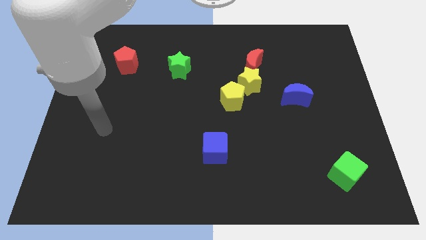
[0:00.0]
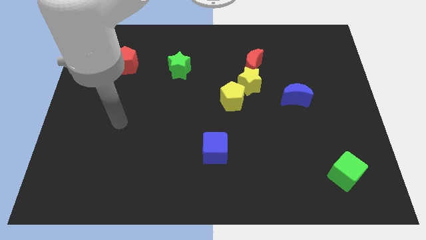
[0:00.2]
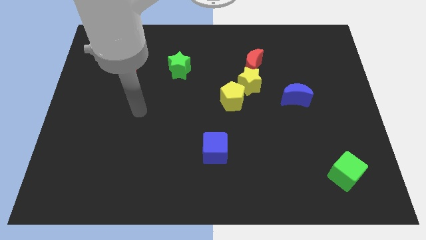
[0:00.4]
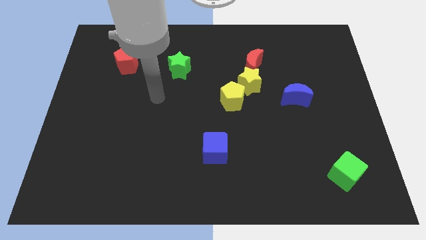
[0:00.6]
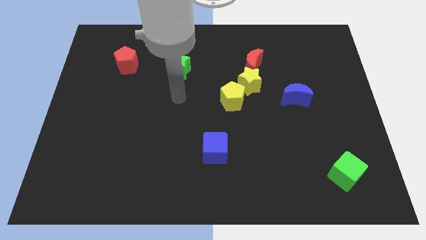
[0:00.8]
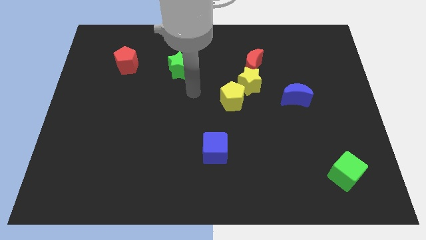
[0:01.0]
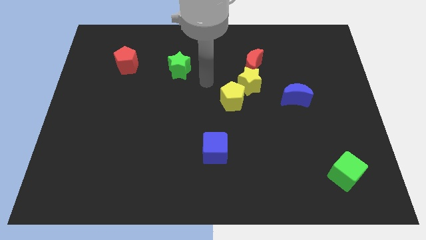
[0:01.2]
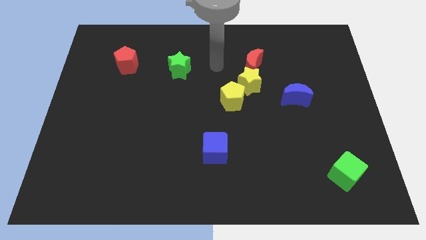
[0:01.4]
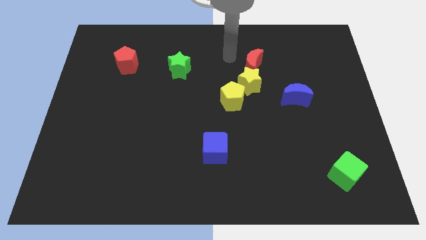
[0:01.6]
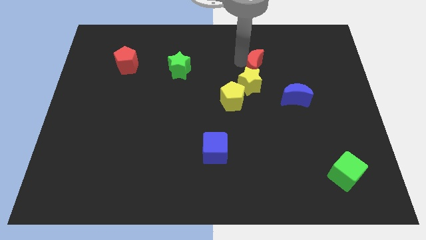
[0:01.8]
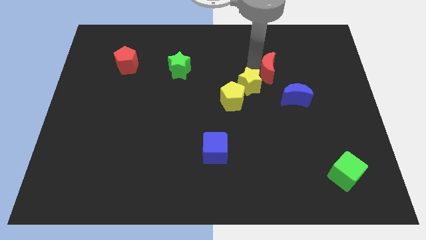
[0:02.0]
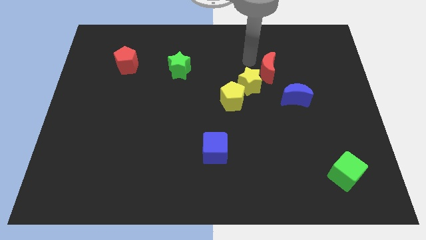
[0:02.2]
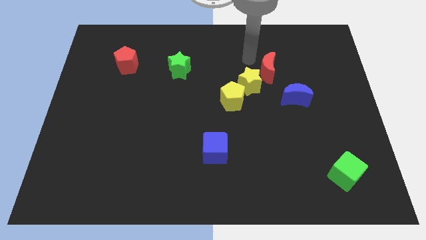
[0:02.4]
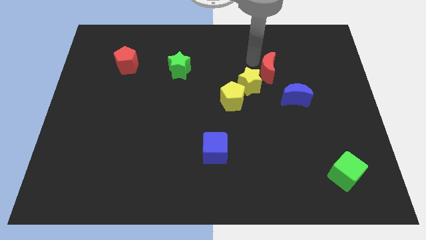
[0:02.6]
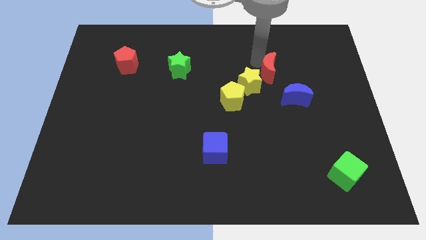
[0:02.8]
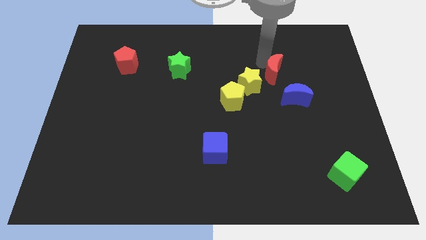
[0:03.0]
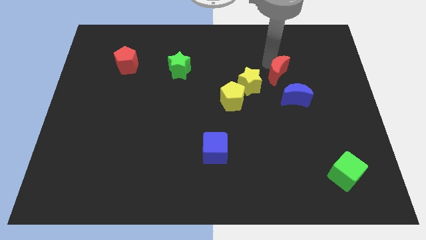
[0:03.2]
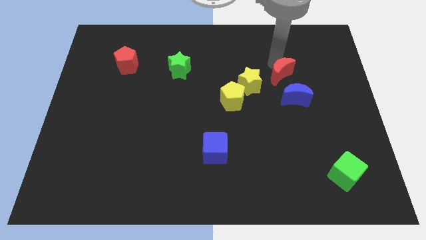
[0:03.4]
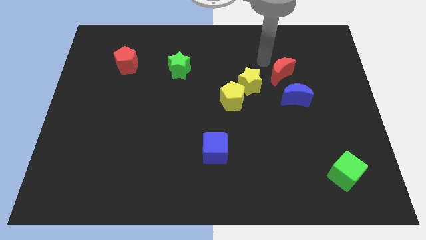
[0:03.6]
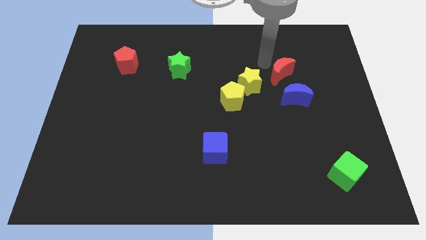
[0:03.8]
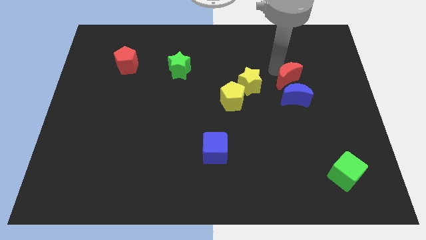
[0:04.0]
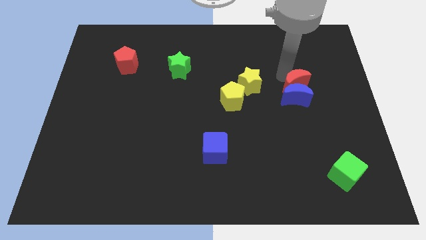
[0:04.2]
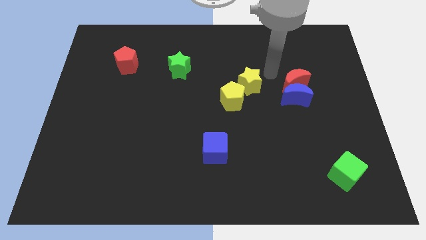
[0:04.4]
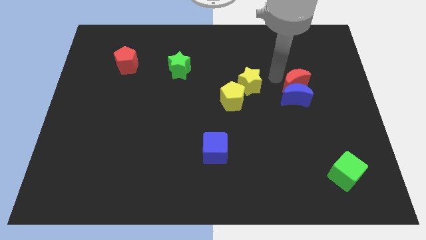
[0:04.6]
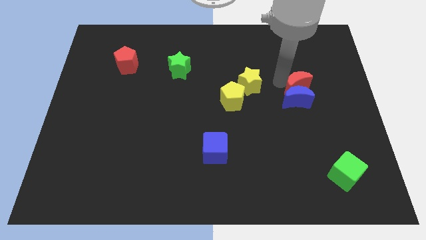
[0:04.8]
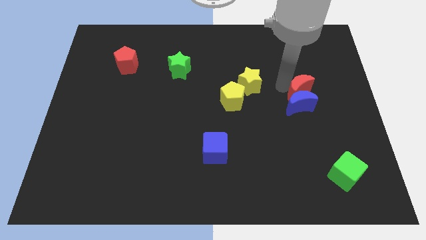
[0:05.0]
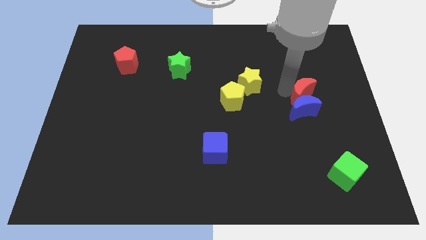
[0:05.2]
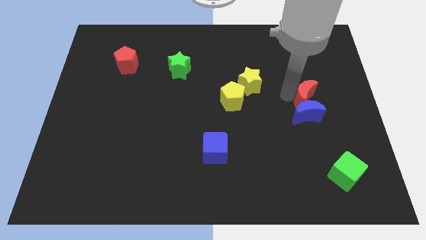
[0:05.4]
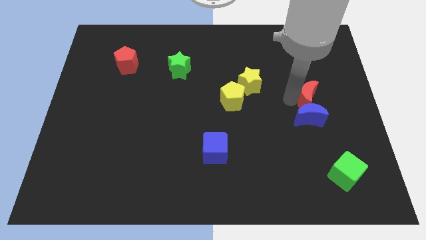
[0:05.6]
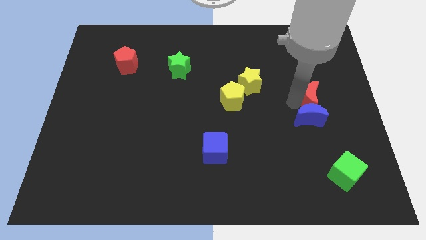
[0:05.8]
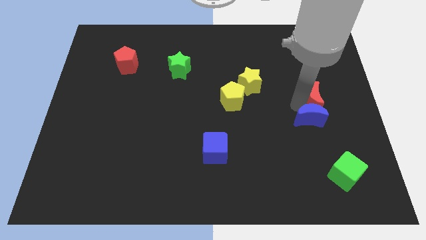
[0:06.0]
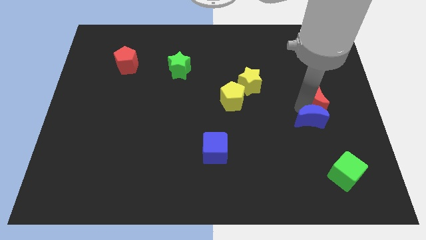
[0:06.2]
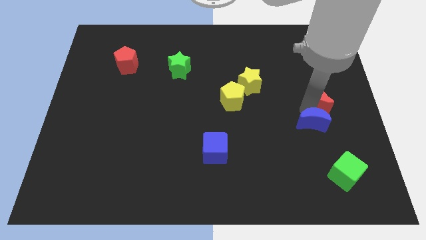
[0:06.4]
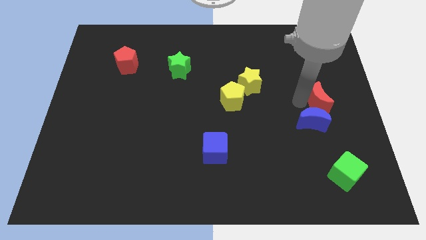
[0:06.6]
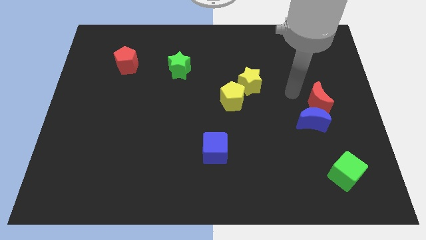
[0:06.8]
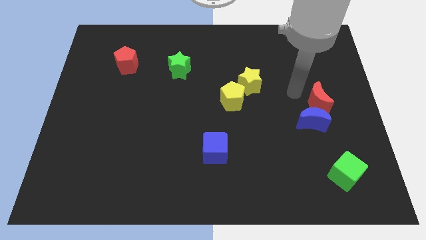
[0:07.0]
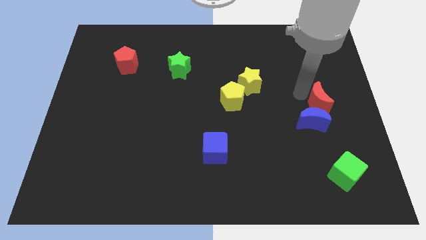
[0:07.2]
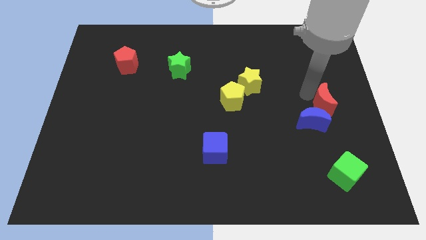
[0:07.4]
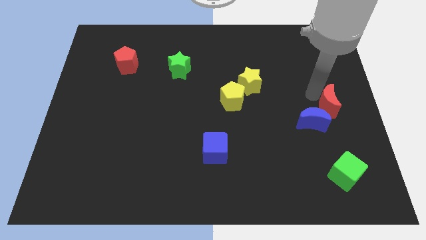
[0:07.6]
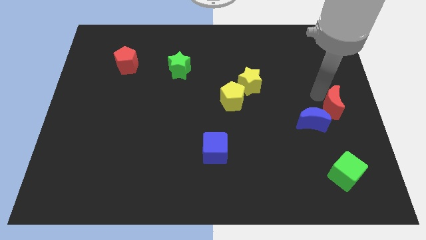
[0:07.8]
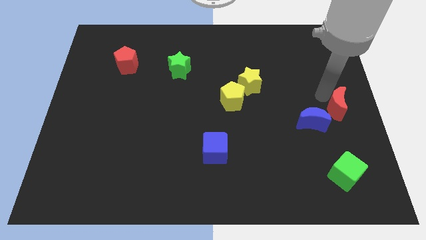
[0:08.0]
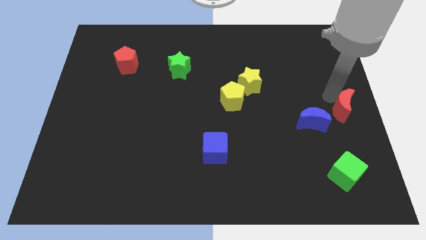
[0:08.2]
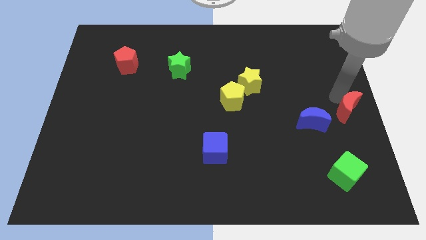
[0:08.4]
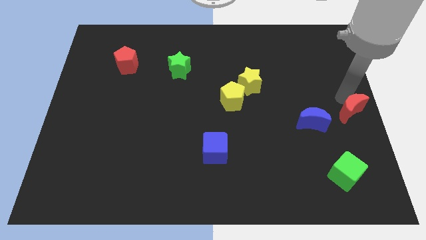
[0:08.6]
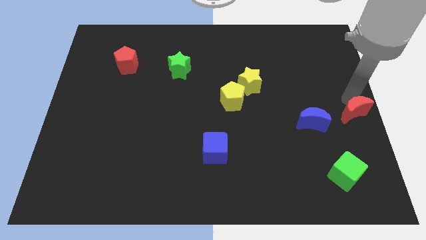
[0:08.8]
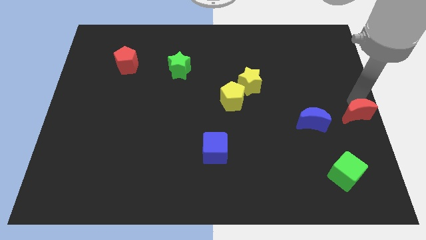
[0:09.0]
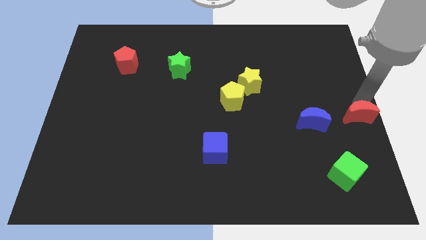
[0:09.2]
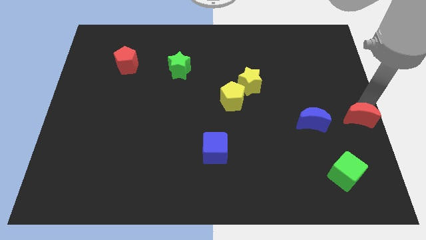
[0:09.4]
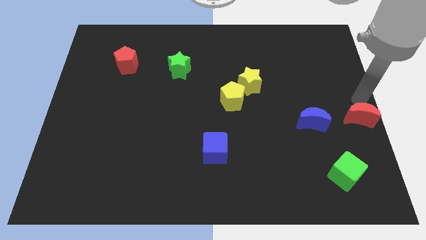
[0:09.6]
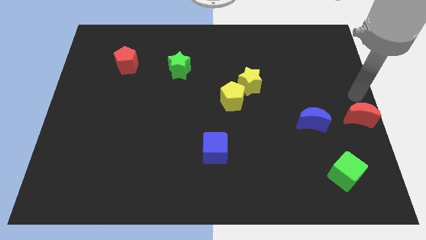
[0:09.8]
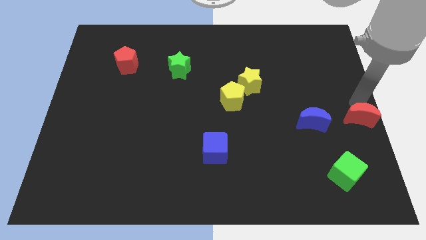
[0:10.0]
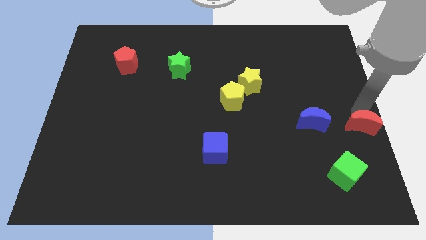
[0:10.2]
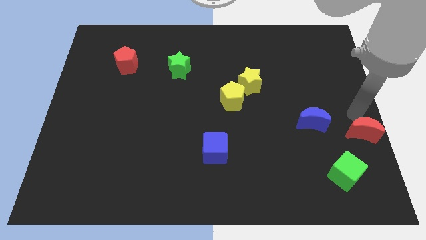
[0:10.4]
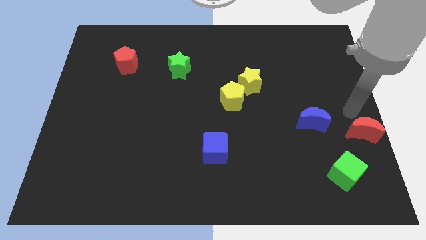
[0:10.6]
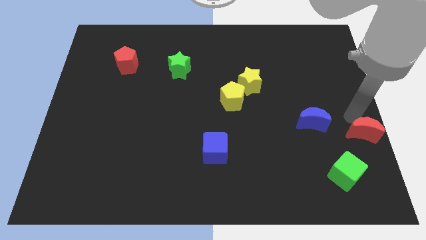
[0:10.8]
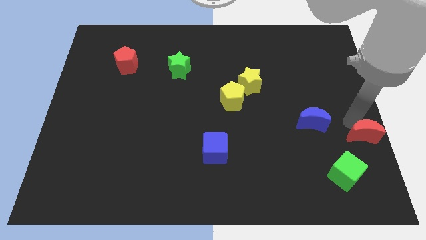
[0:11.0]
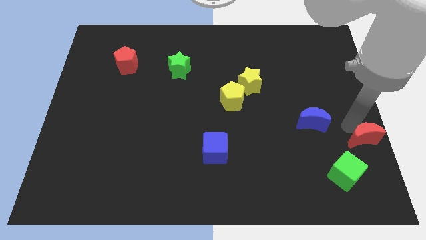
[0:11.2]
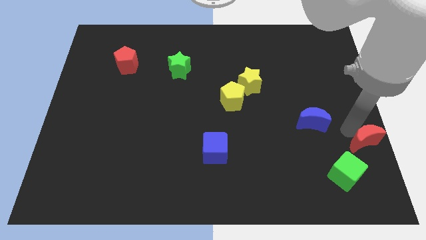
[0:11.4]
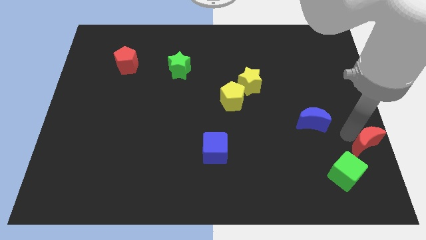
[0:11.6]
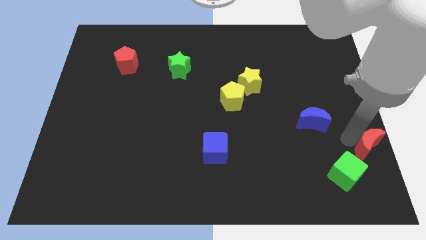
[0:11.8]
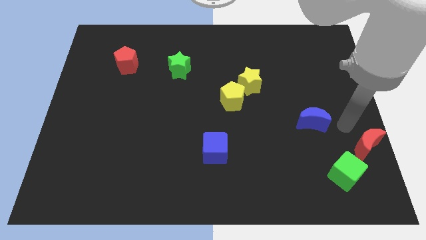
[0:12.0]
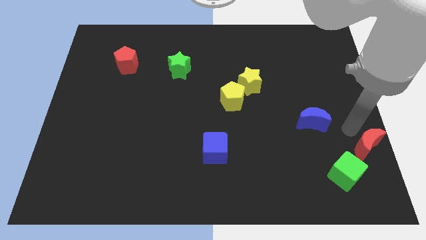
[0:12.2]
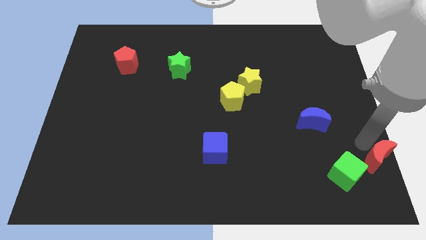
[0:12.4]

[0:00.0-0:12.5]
put the red moon to the bottom right

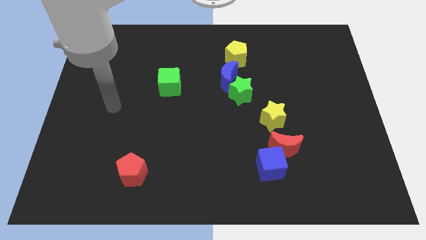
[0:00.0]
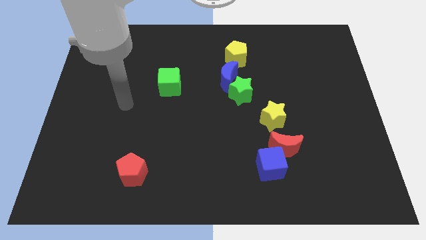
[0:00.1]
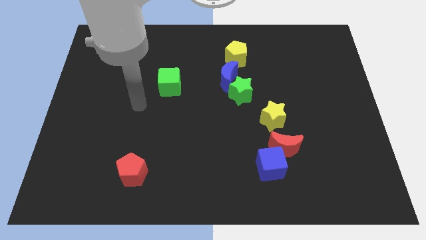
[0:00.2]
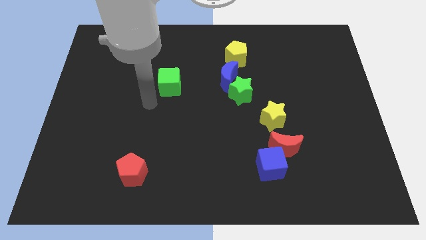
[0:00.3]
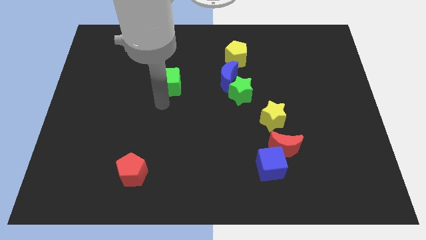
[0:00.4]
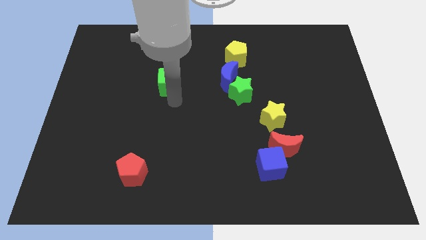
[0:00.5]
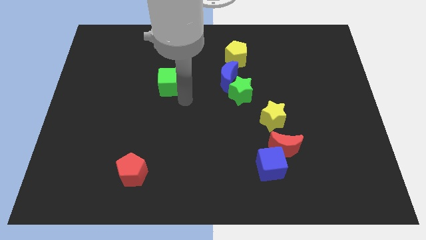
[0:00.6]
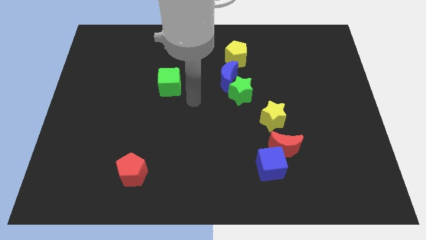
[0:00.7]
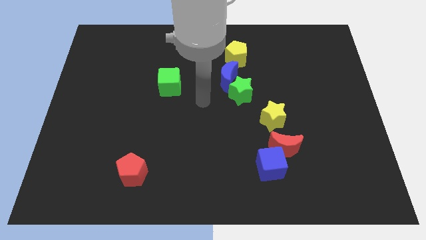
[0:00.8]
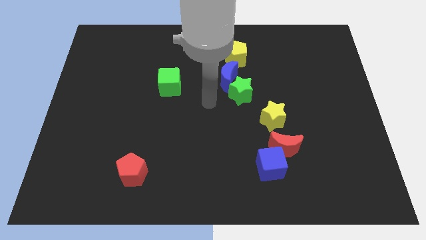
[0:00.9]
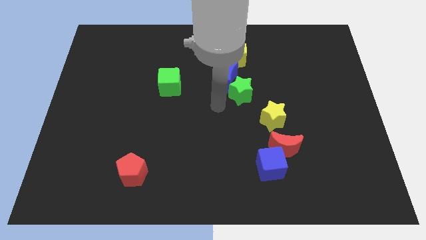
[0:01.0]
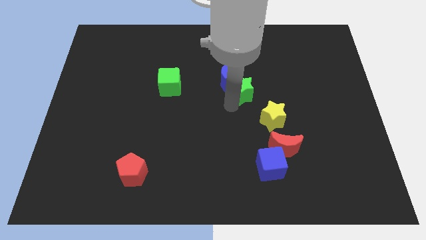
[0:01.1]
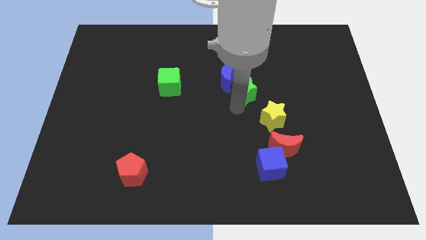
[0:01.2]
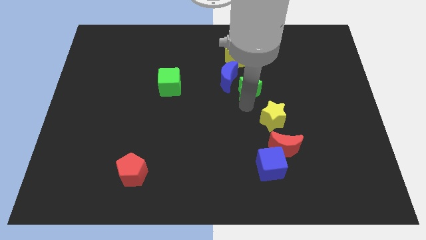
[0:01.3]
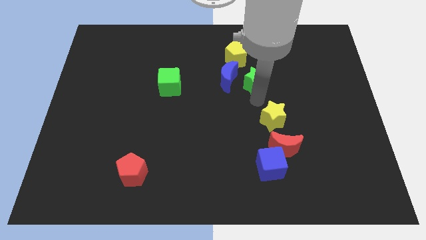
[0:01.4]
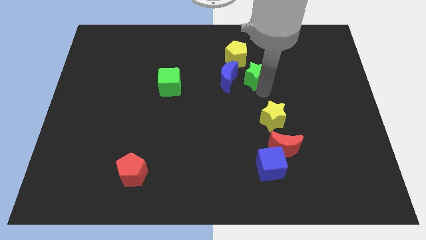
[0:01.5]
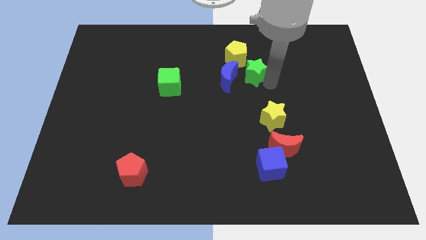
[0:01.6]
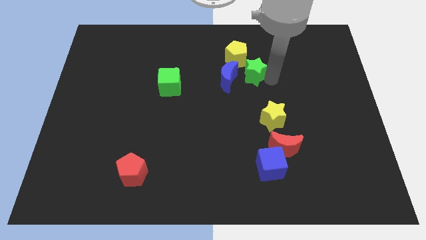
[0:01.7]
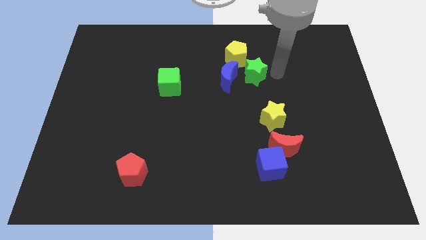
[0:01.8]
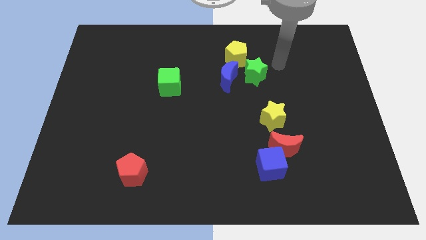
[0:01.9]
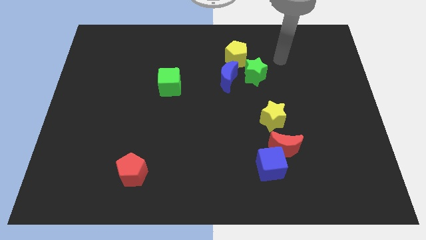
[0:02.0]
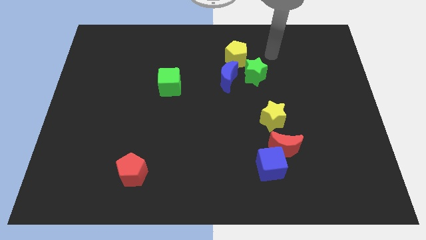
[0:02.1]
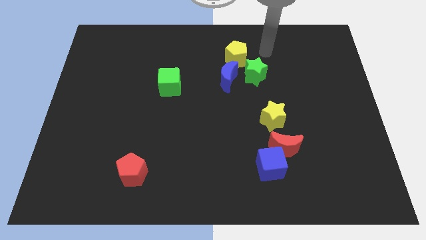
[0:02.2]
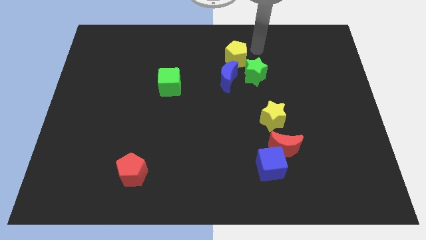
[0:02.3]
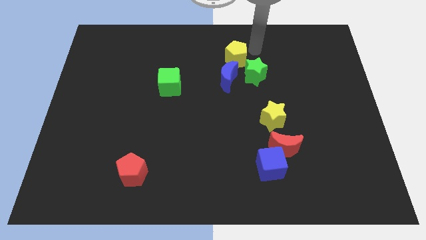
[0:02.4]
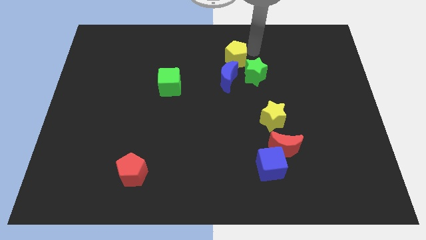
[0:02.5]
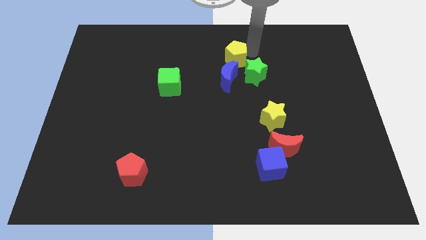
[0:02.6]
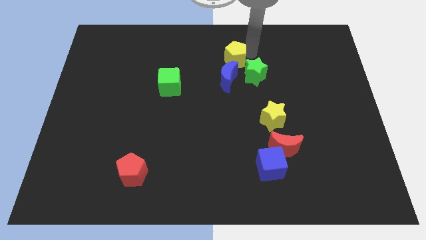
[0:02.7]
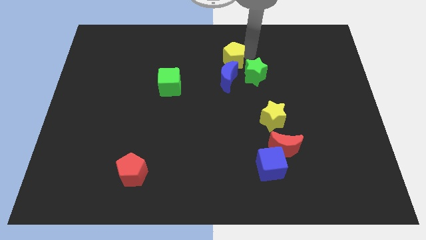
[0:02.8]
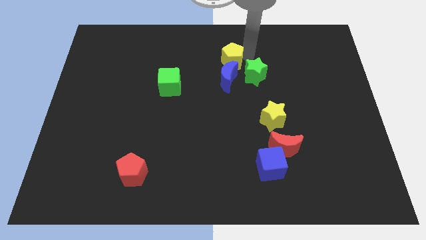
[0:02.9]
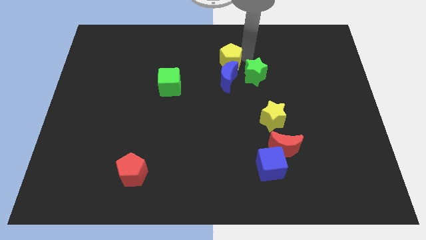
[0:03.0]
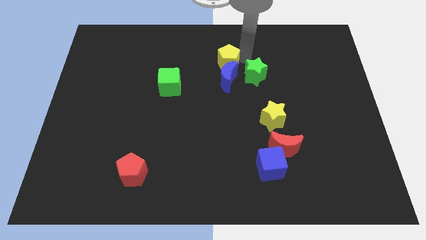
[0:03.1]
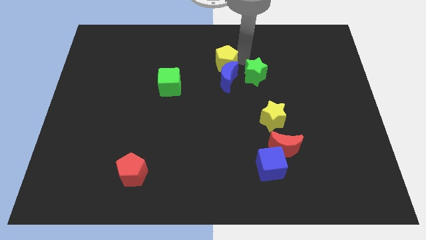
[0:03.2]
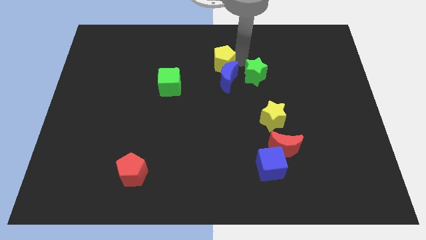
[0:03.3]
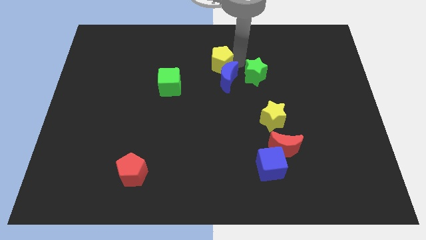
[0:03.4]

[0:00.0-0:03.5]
move the yellow pentagon to the middle
